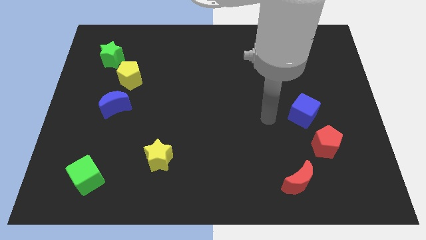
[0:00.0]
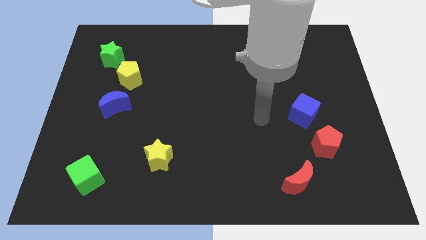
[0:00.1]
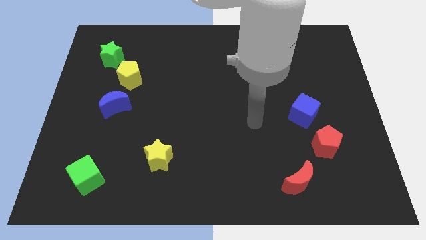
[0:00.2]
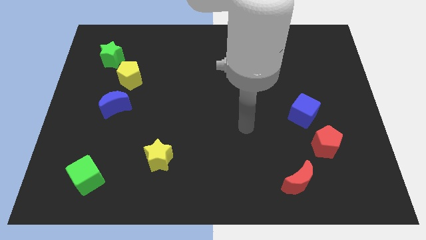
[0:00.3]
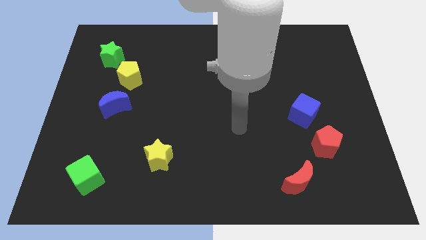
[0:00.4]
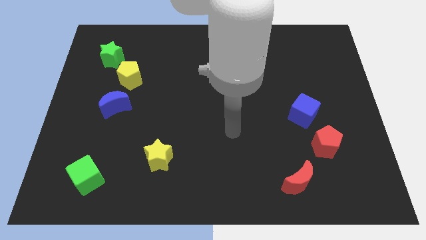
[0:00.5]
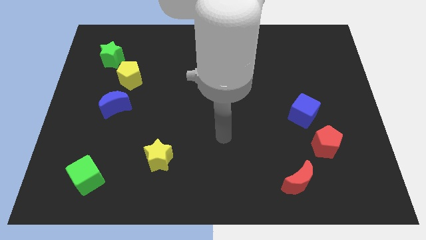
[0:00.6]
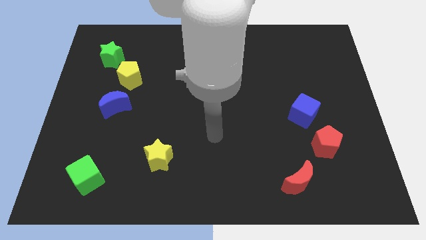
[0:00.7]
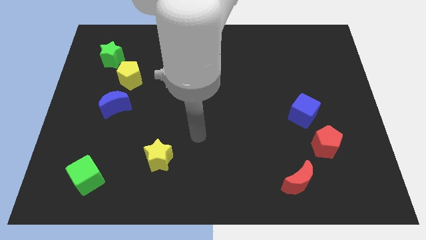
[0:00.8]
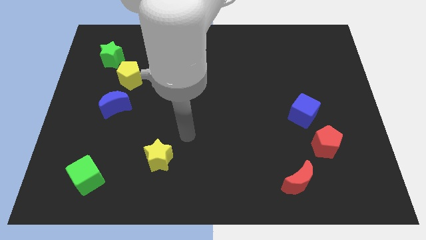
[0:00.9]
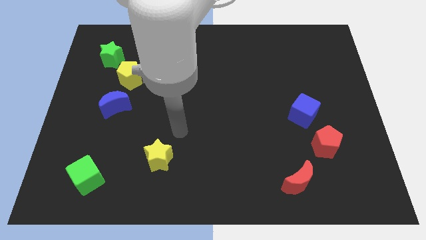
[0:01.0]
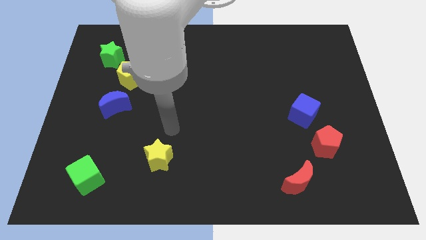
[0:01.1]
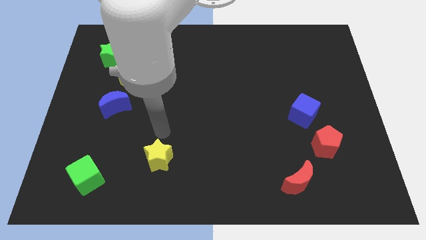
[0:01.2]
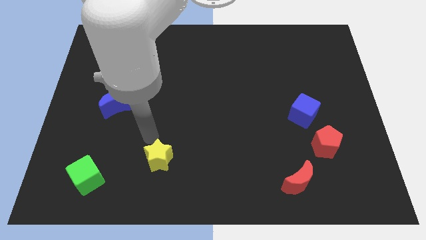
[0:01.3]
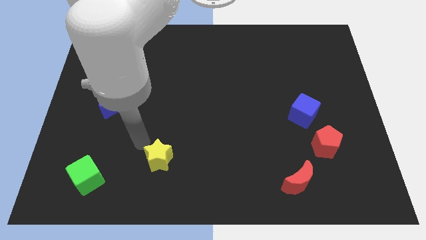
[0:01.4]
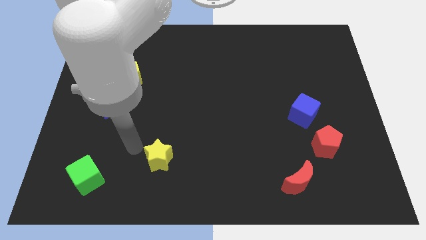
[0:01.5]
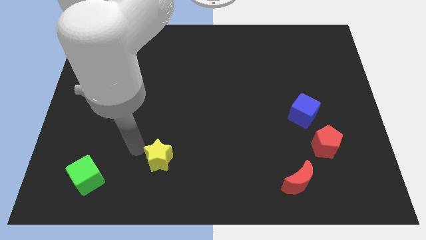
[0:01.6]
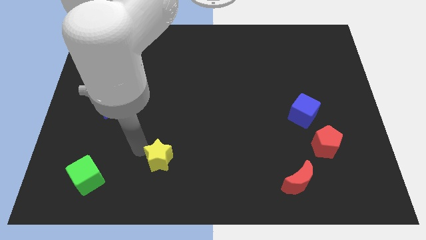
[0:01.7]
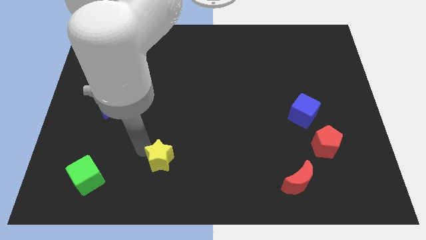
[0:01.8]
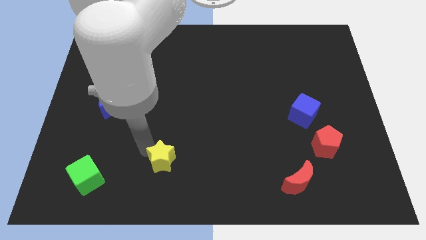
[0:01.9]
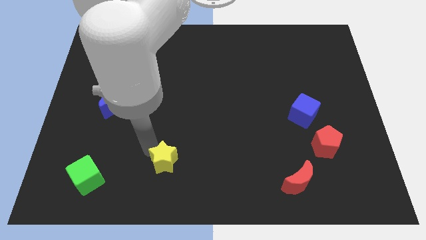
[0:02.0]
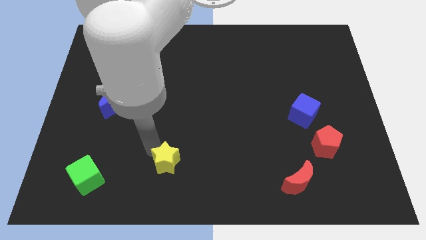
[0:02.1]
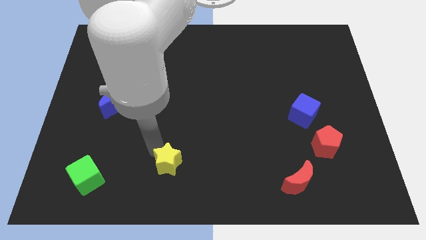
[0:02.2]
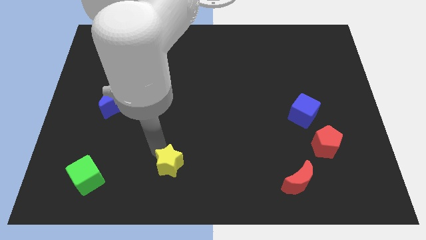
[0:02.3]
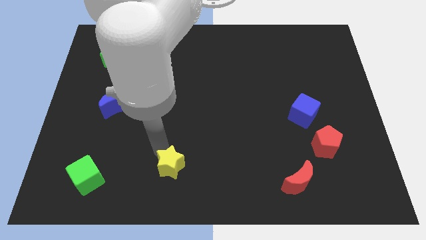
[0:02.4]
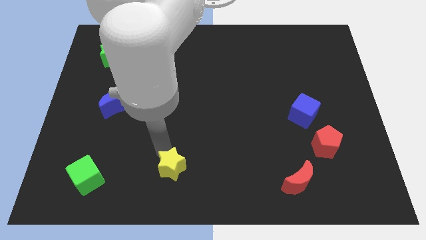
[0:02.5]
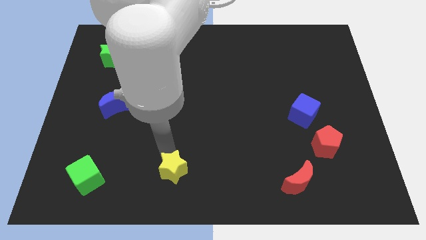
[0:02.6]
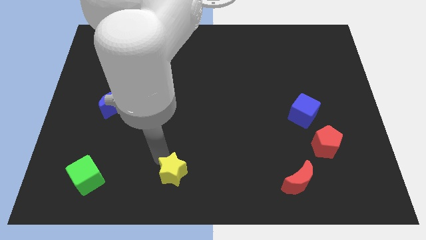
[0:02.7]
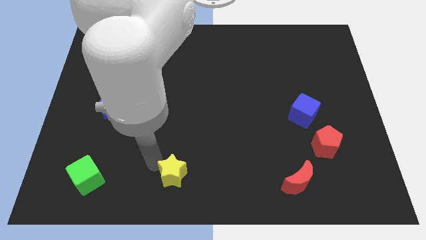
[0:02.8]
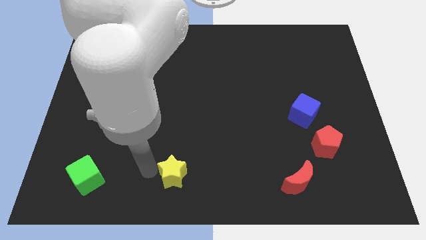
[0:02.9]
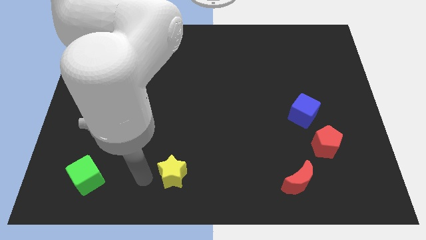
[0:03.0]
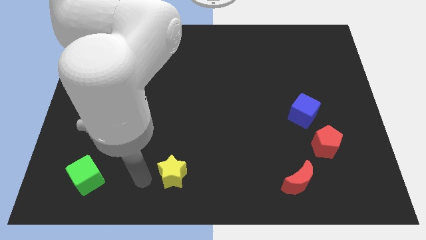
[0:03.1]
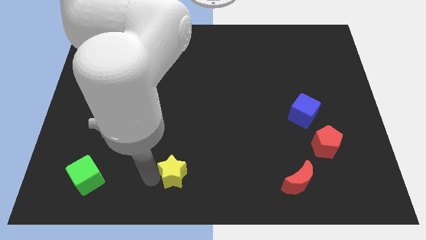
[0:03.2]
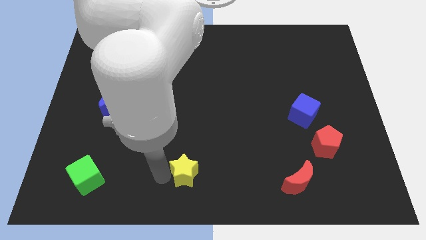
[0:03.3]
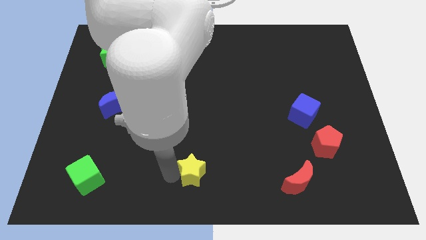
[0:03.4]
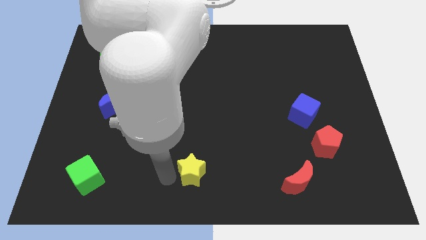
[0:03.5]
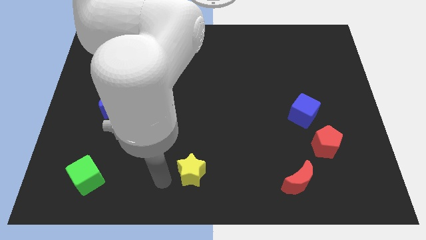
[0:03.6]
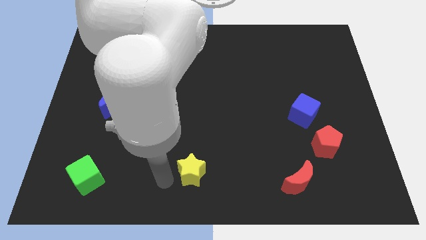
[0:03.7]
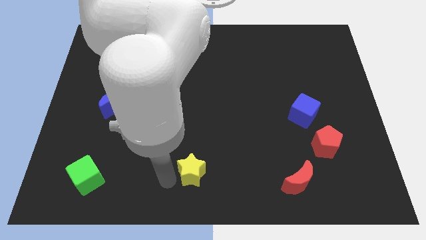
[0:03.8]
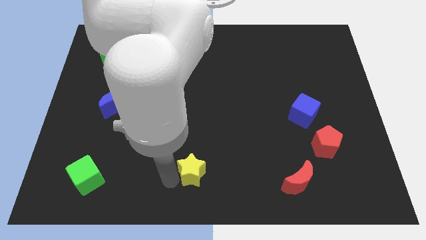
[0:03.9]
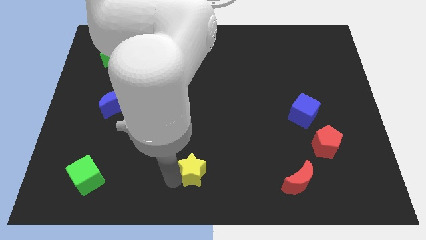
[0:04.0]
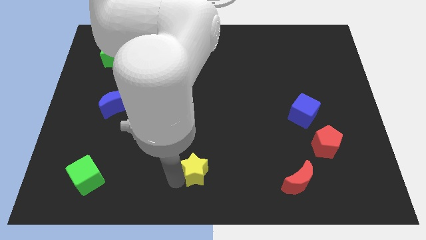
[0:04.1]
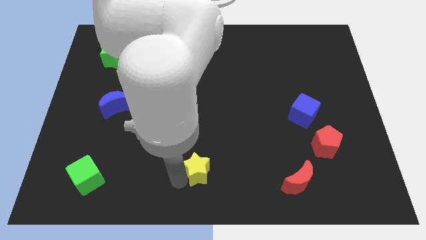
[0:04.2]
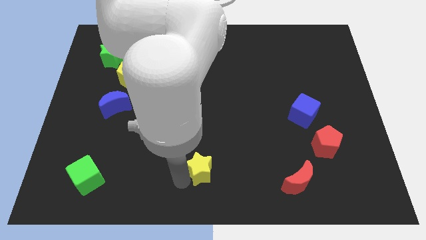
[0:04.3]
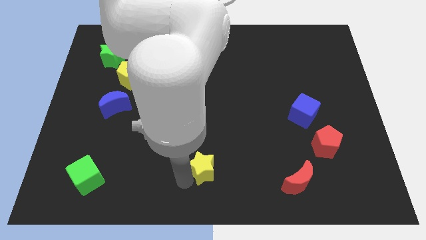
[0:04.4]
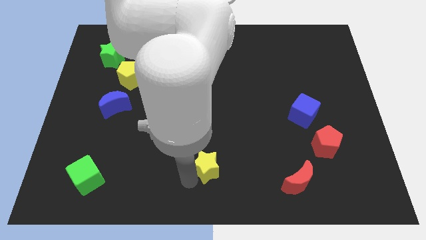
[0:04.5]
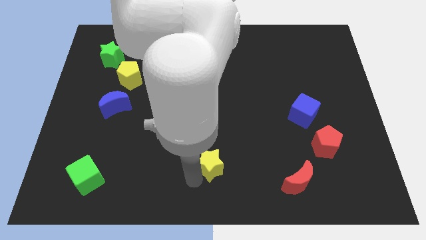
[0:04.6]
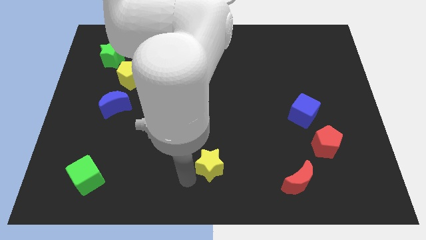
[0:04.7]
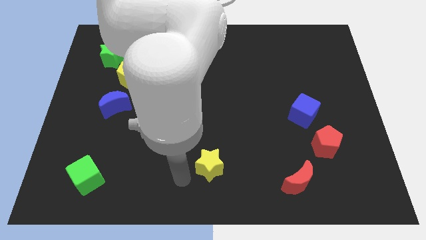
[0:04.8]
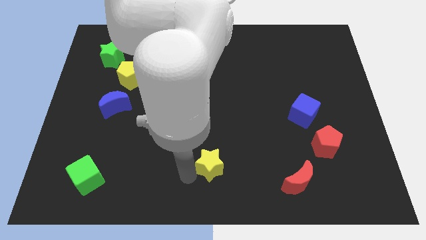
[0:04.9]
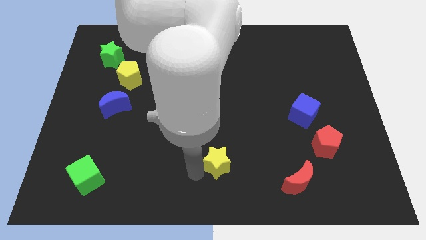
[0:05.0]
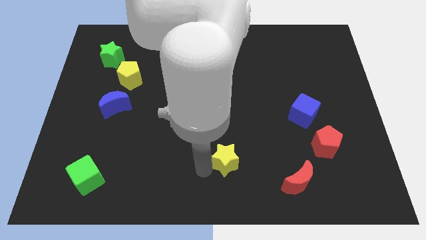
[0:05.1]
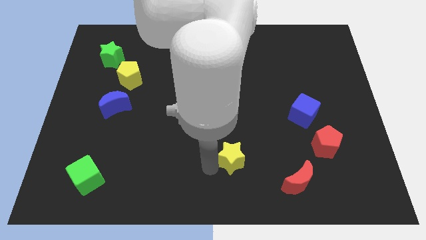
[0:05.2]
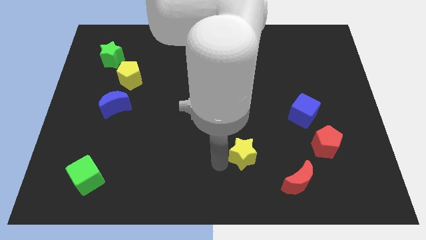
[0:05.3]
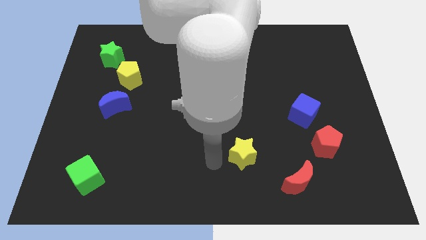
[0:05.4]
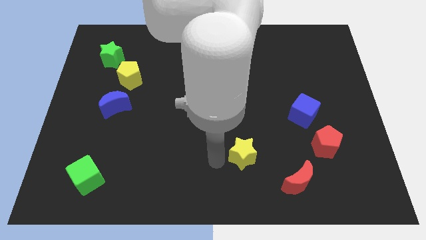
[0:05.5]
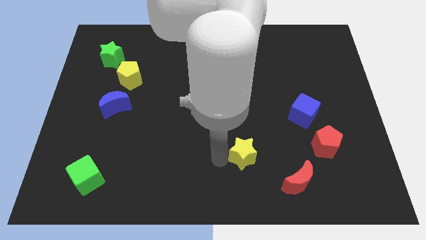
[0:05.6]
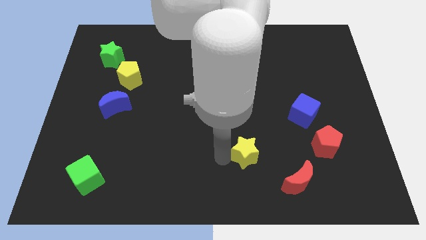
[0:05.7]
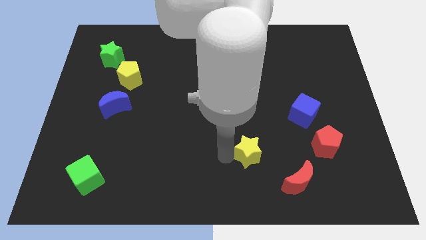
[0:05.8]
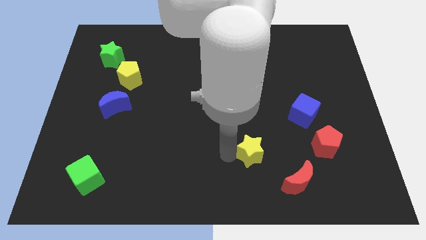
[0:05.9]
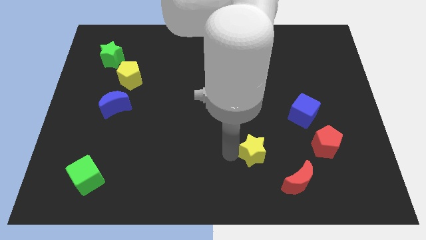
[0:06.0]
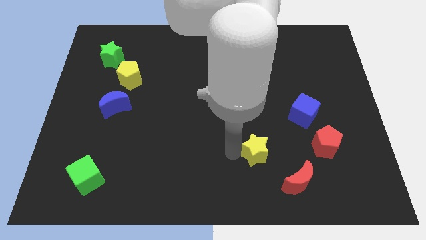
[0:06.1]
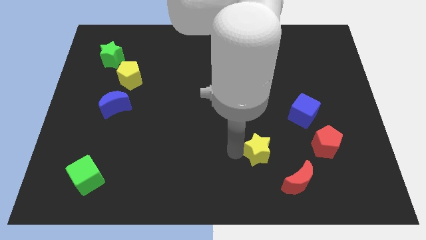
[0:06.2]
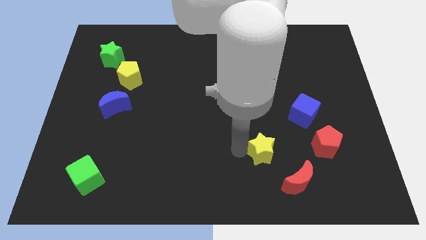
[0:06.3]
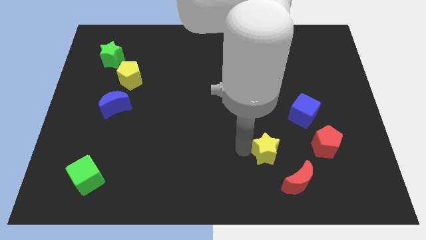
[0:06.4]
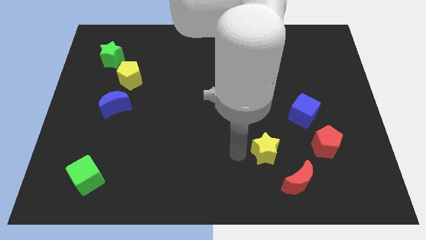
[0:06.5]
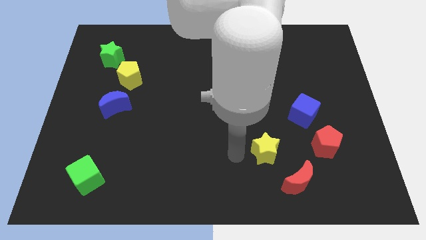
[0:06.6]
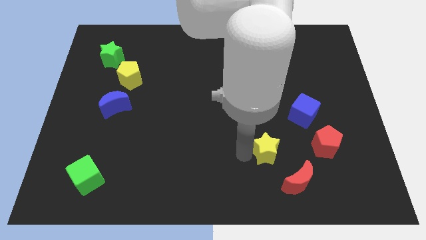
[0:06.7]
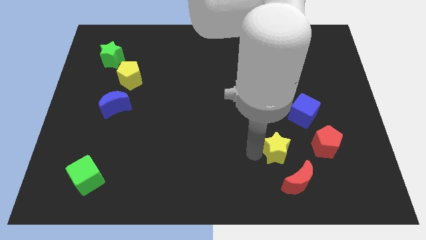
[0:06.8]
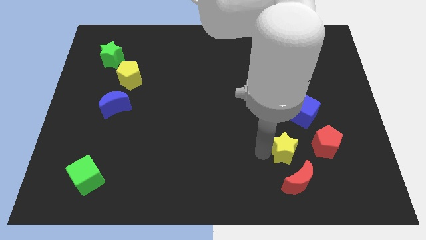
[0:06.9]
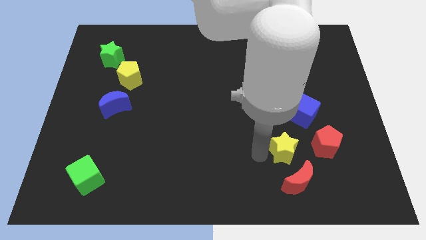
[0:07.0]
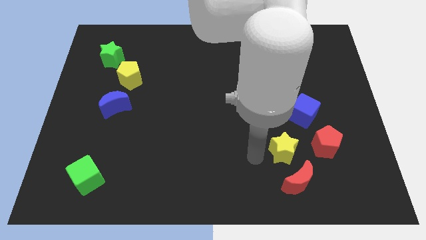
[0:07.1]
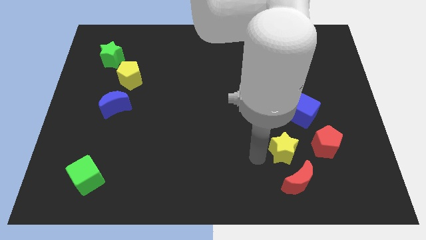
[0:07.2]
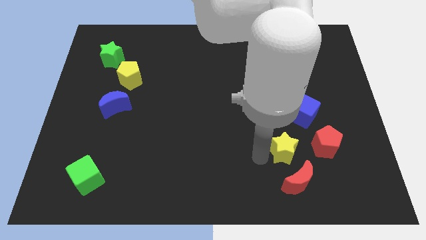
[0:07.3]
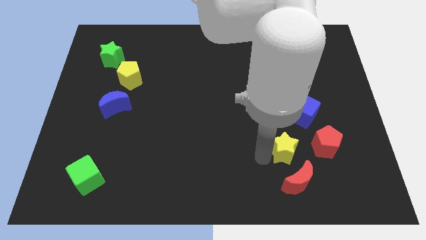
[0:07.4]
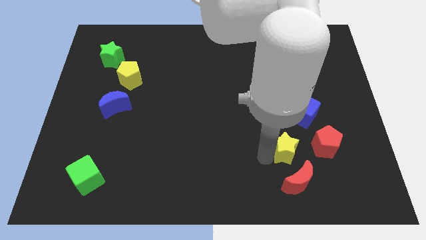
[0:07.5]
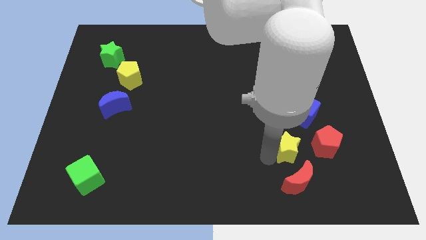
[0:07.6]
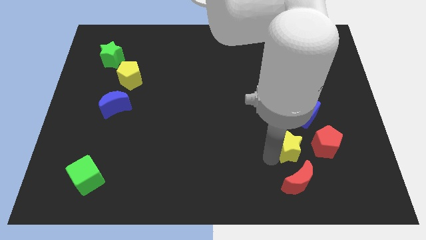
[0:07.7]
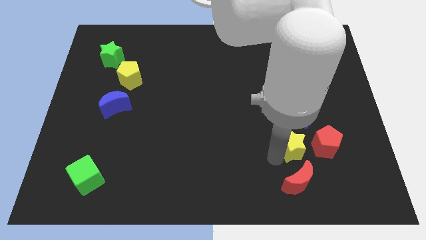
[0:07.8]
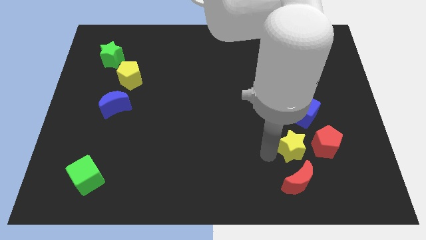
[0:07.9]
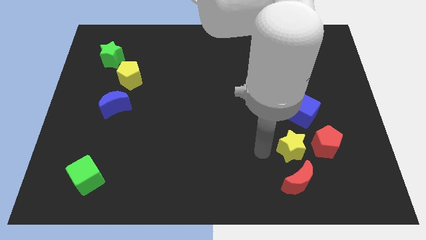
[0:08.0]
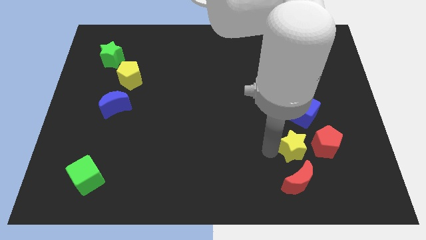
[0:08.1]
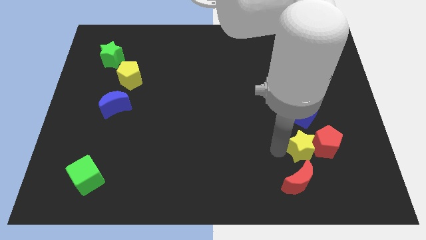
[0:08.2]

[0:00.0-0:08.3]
push the yellow star next to the red pentagon

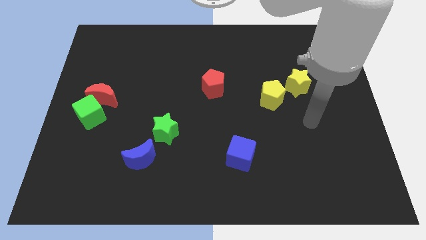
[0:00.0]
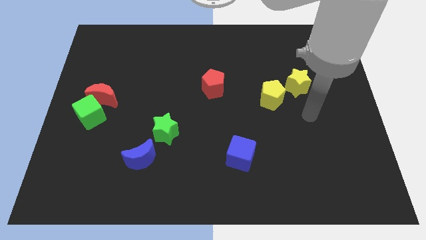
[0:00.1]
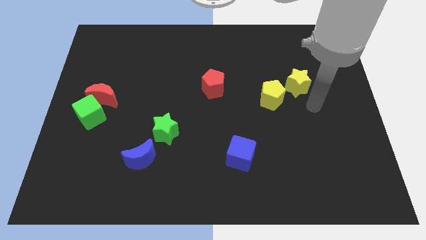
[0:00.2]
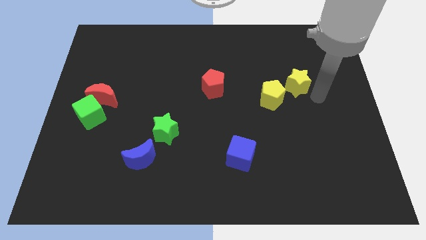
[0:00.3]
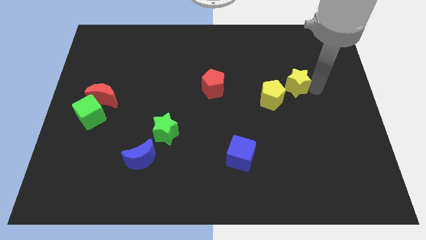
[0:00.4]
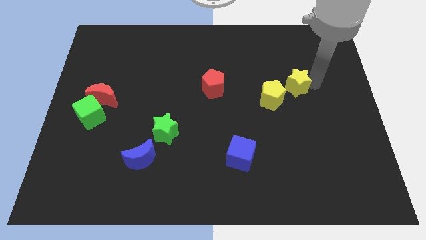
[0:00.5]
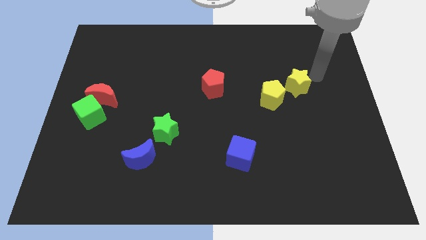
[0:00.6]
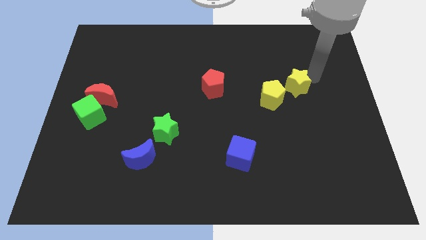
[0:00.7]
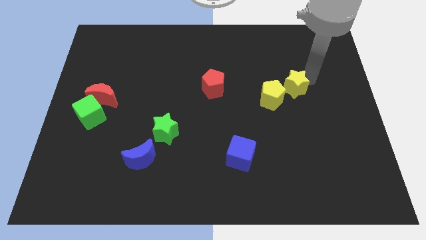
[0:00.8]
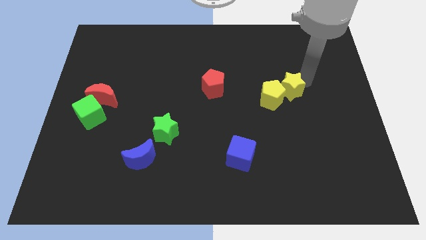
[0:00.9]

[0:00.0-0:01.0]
push the yellow star close to the yellow pentagon
